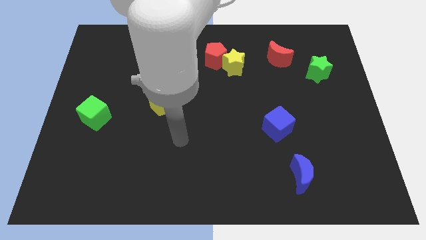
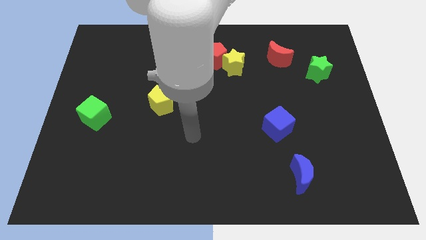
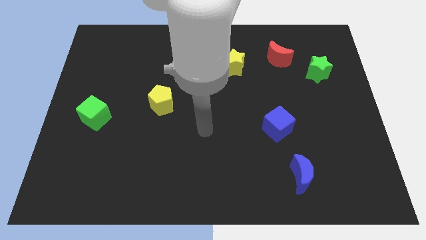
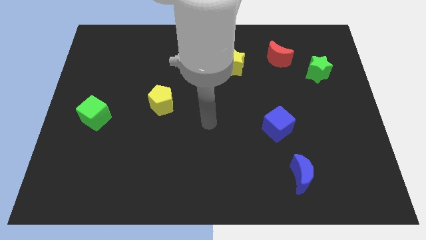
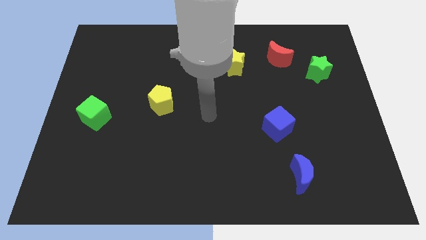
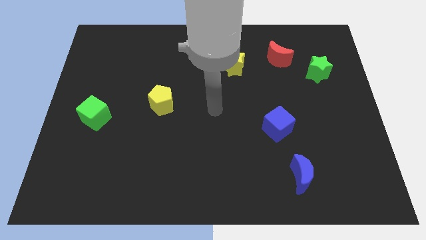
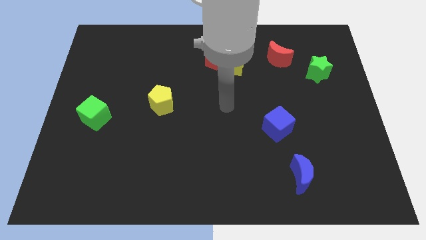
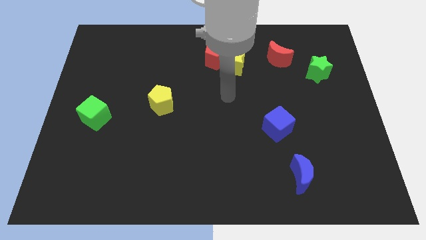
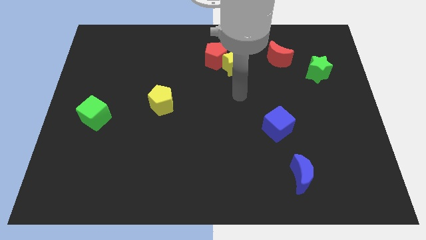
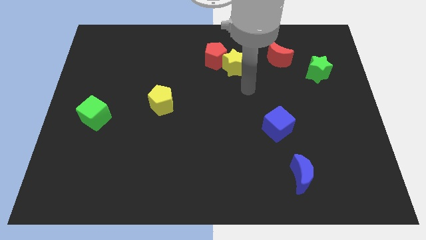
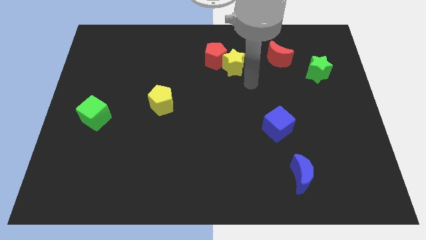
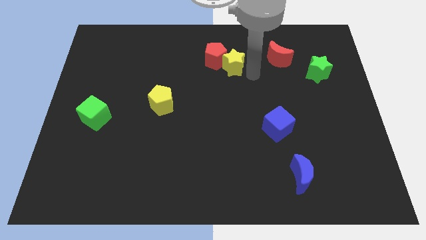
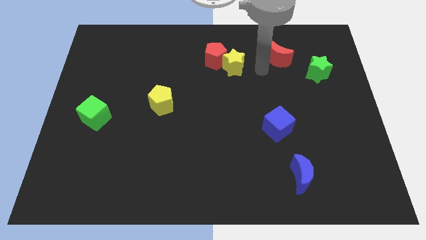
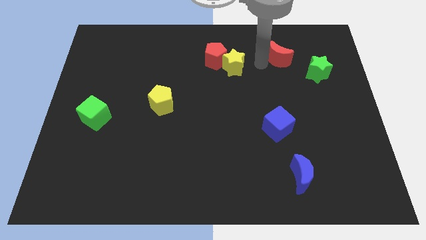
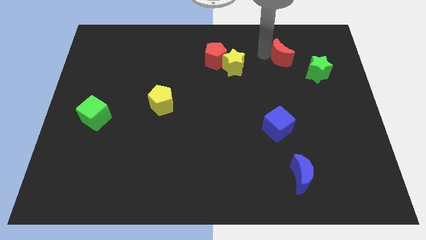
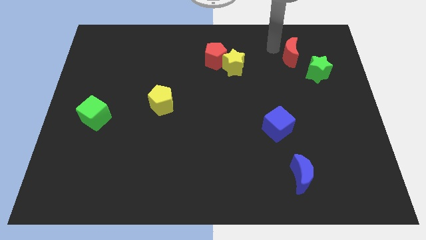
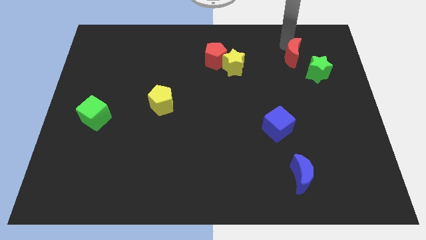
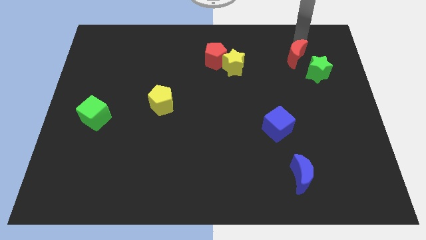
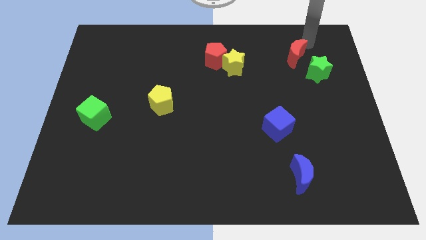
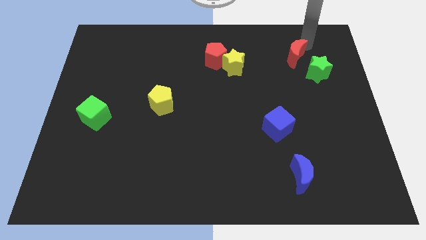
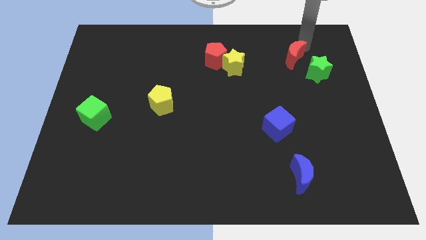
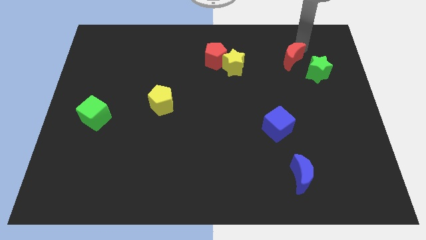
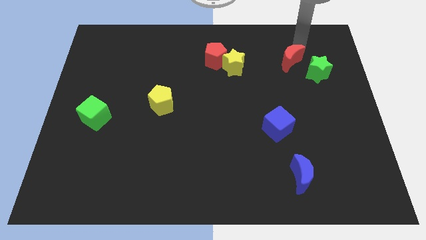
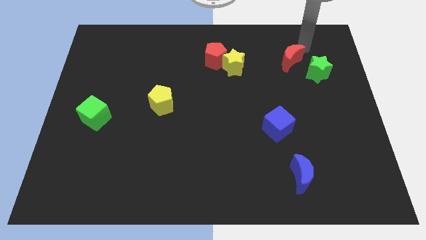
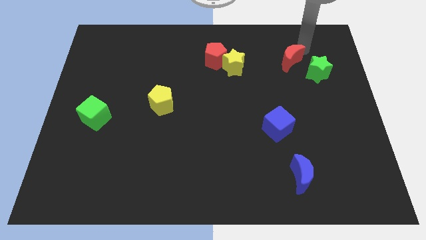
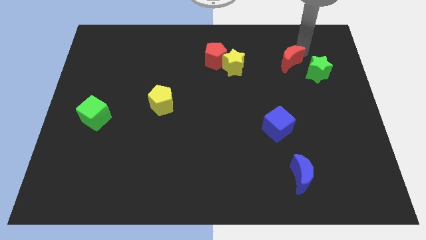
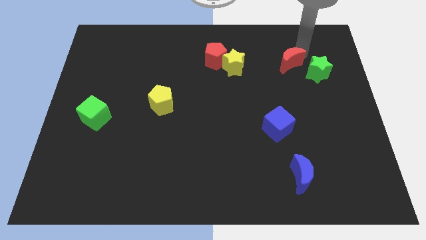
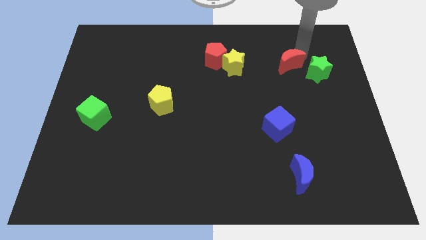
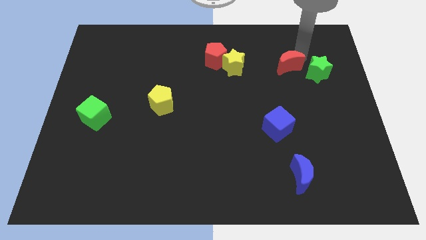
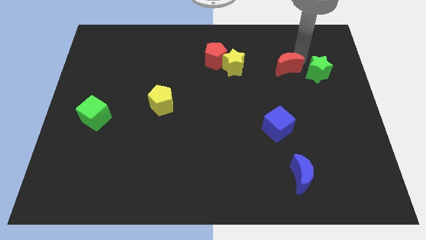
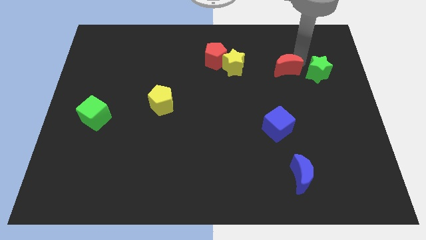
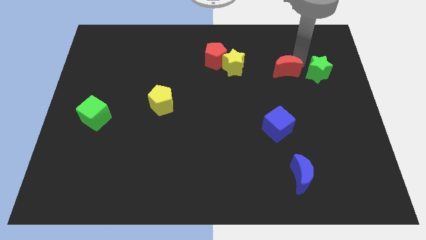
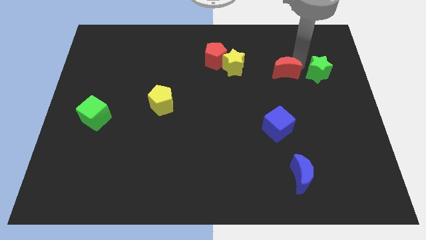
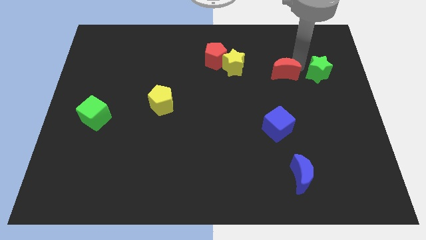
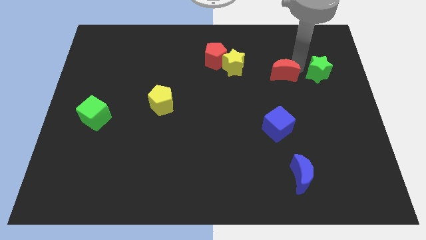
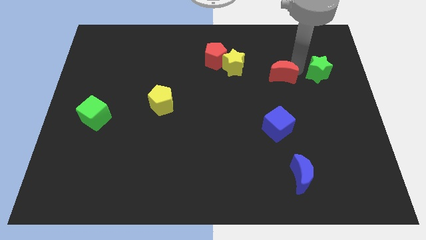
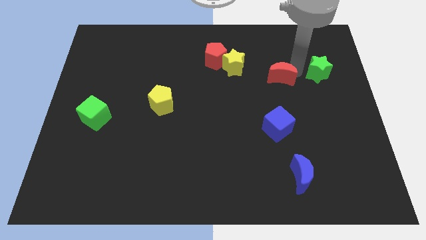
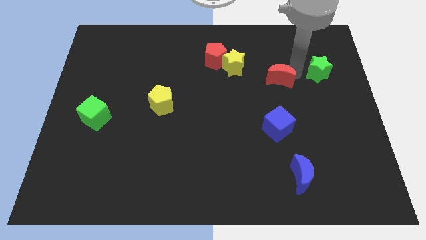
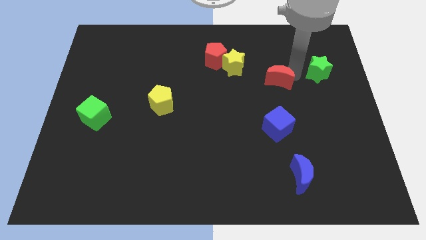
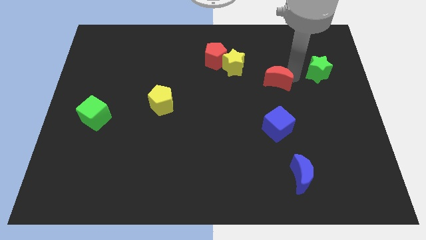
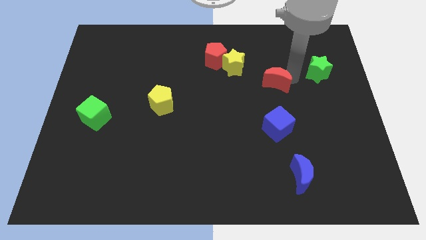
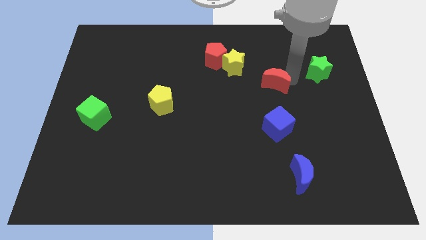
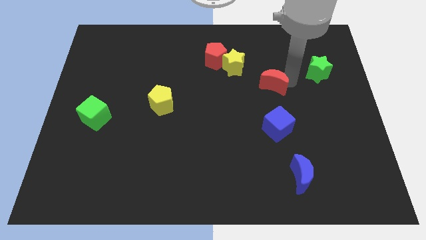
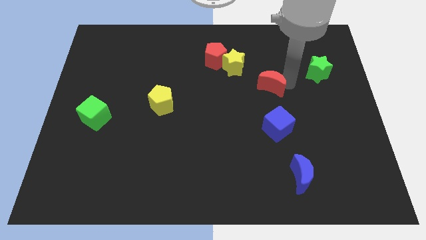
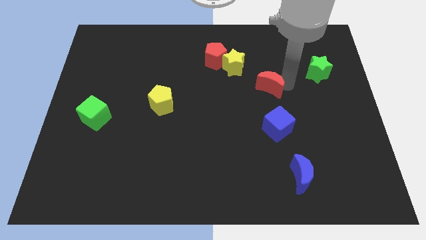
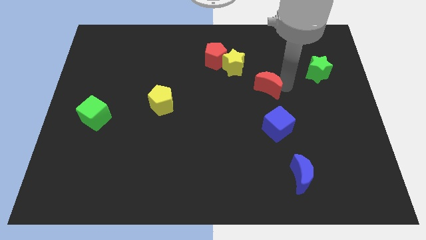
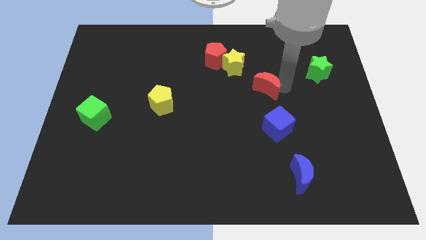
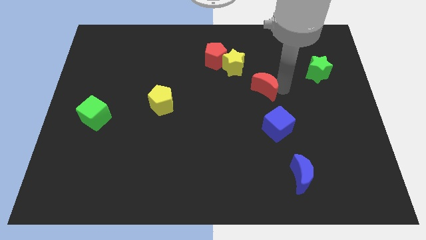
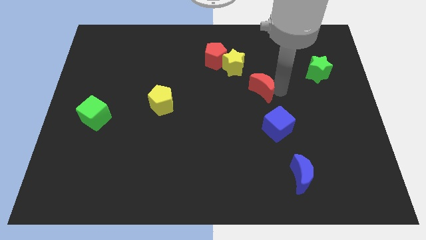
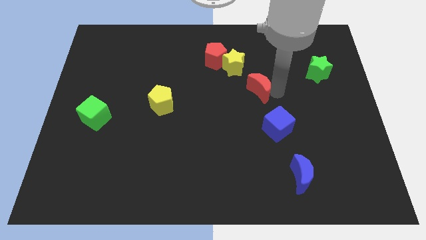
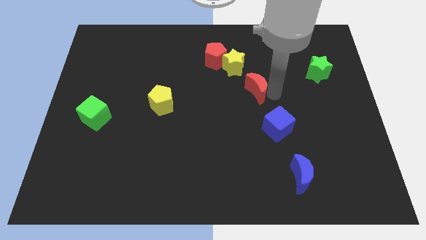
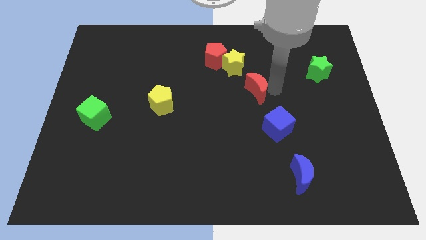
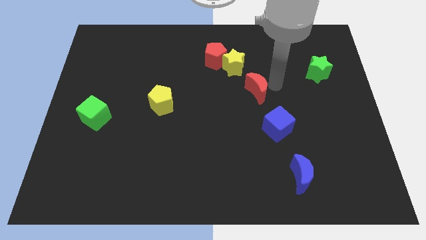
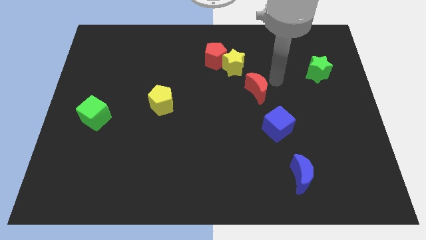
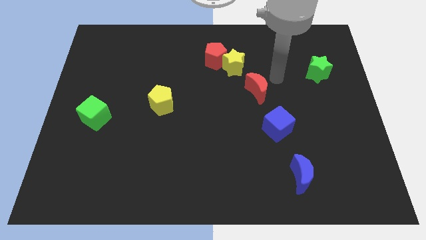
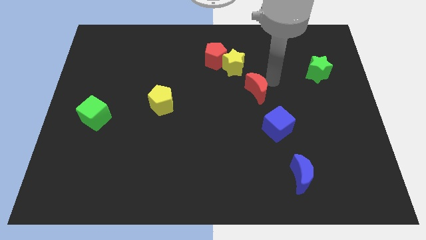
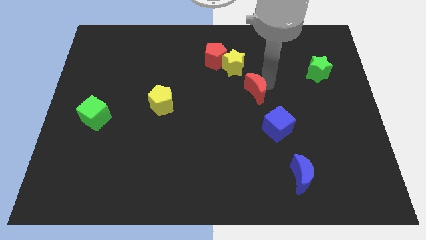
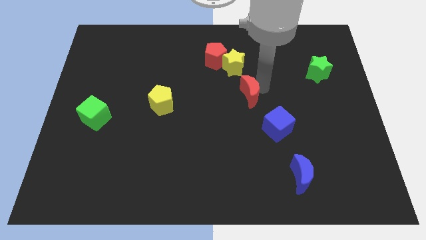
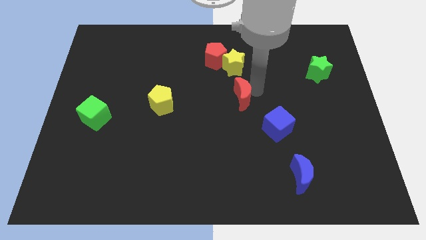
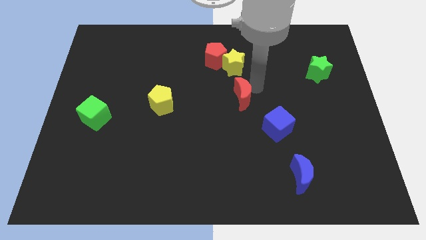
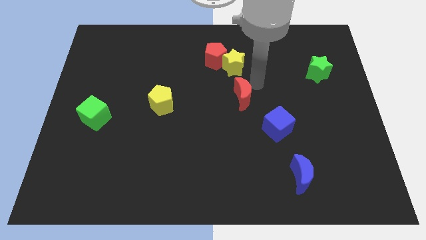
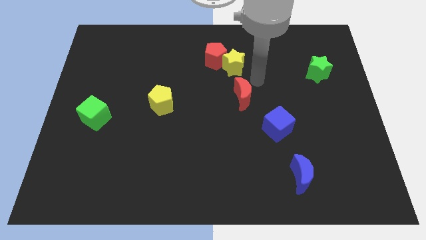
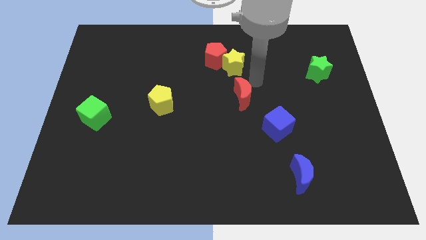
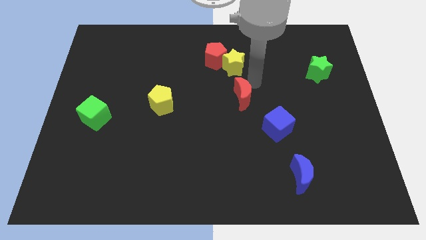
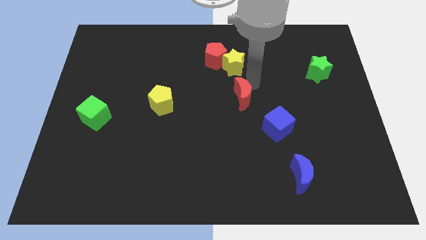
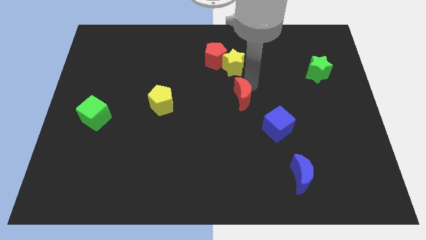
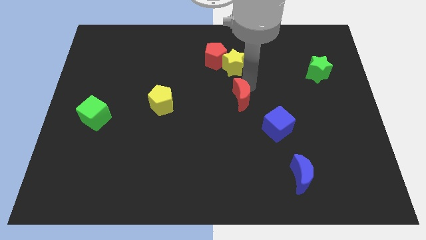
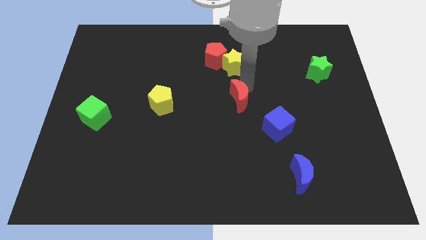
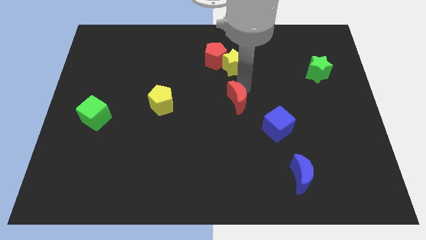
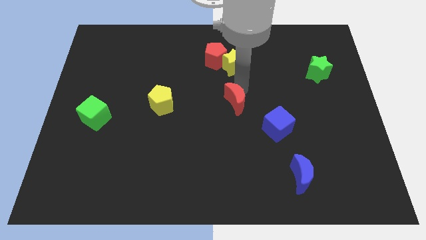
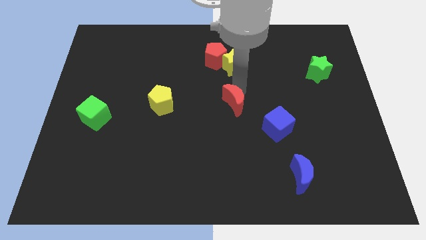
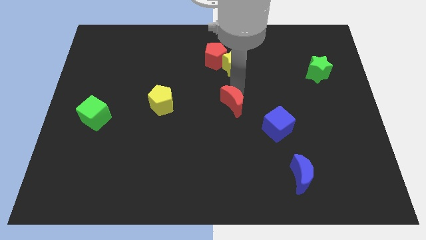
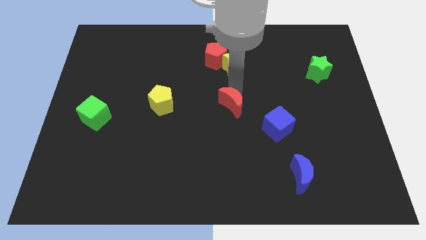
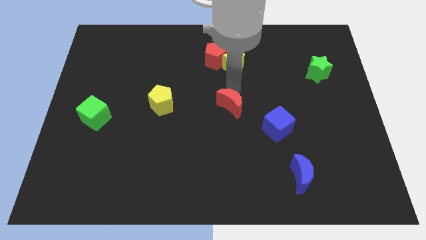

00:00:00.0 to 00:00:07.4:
move the red moon diagonally downwards and left

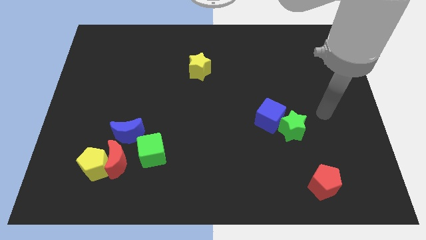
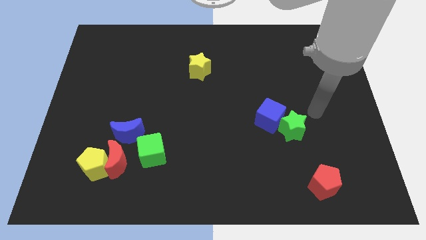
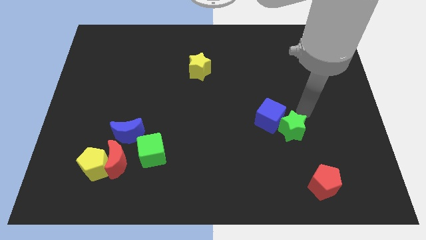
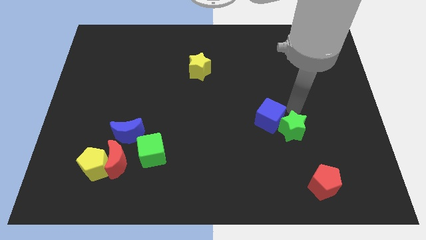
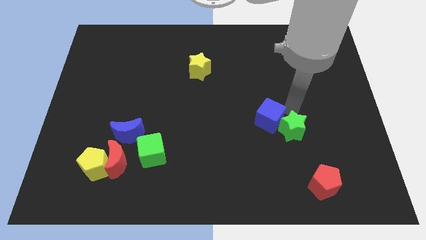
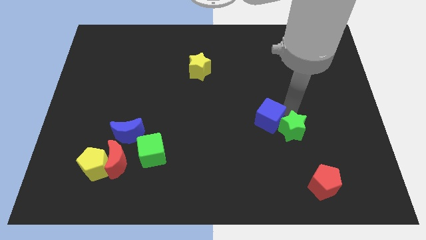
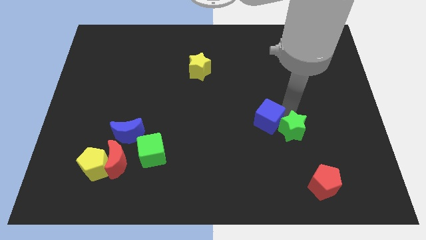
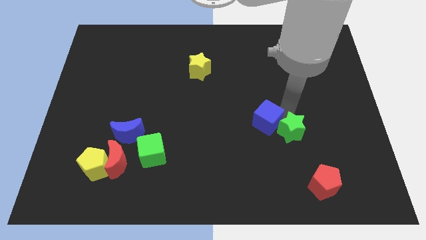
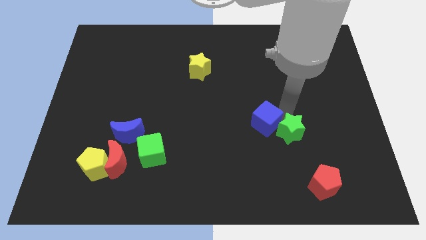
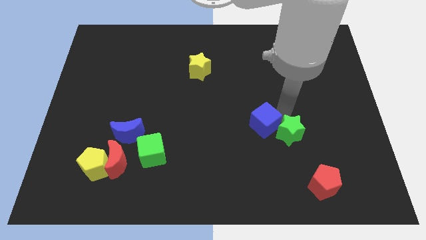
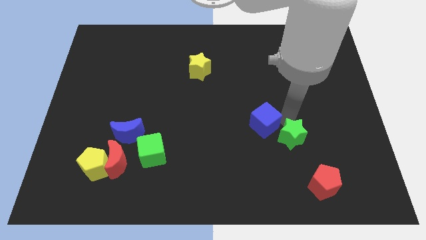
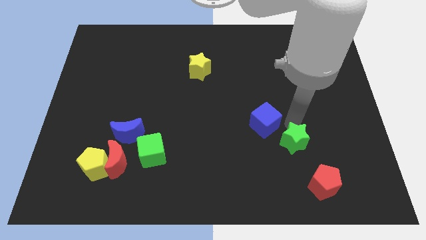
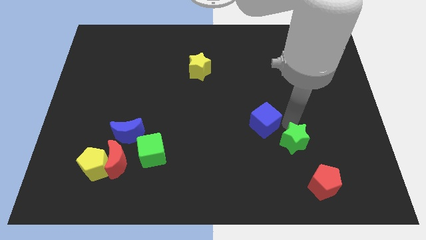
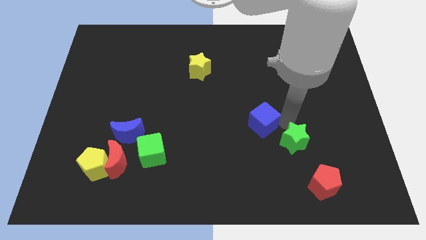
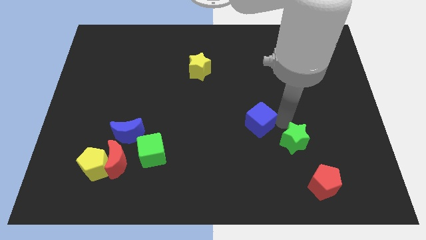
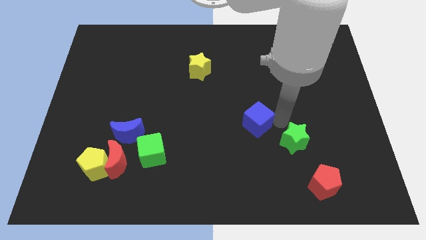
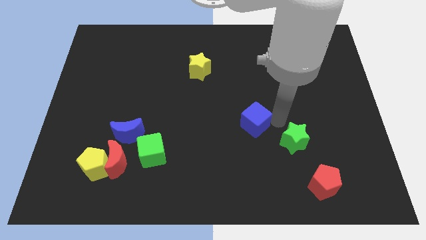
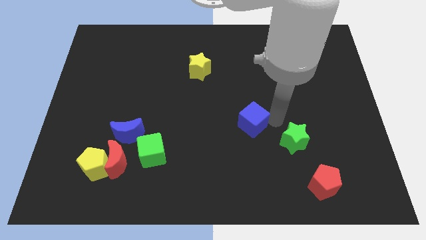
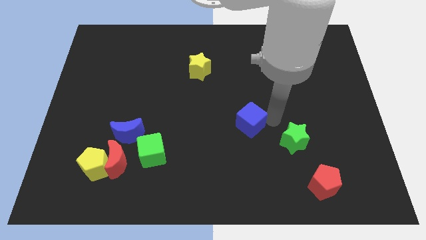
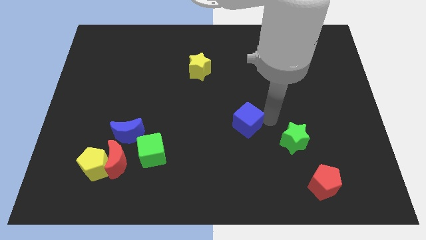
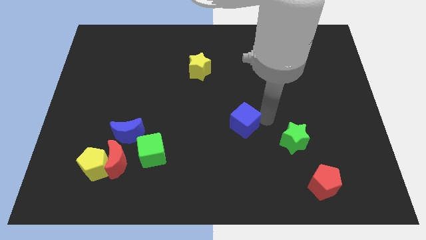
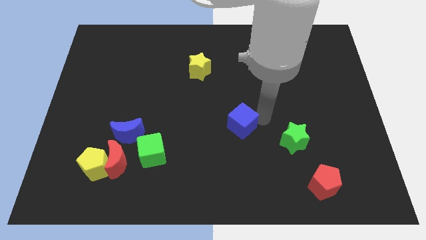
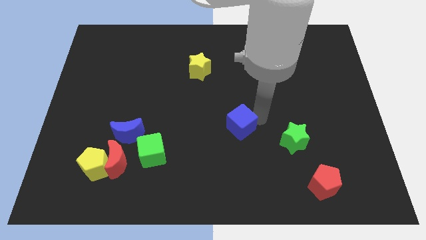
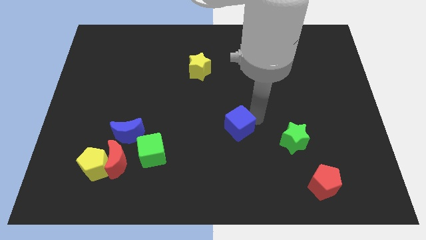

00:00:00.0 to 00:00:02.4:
move the blue cube left a little bit
